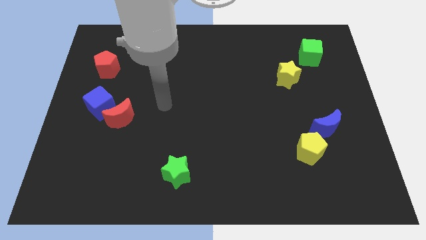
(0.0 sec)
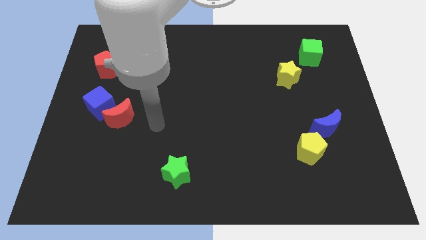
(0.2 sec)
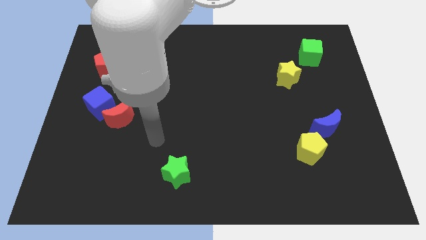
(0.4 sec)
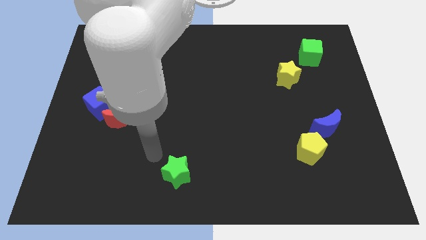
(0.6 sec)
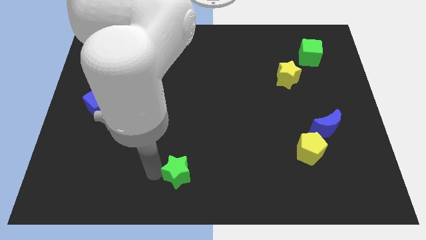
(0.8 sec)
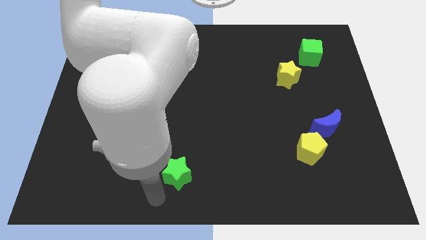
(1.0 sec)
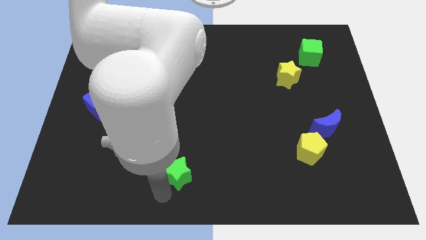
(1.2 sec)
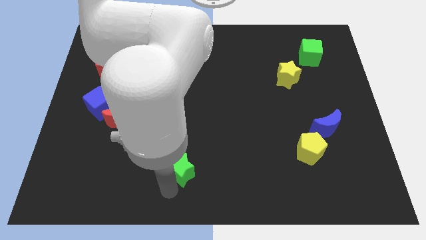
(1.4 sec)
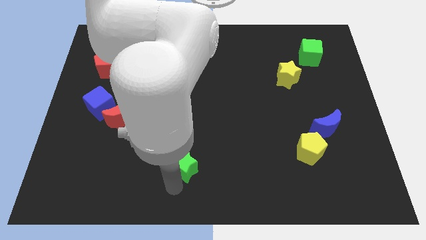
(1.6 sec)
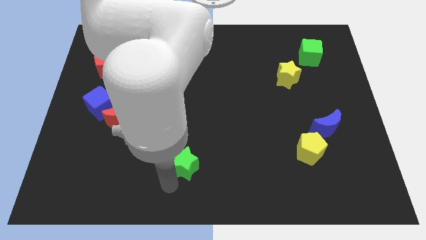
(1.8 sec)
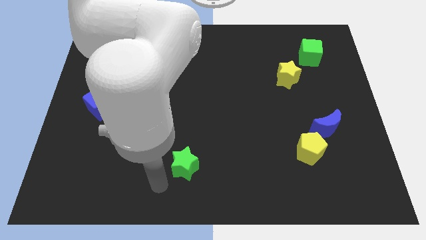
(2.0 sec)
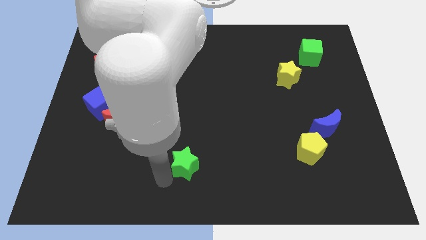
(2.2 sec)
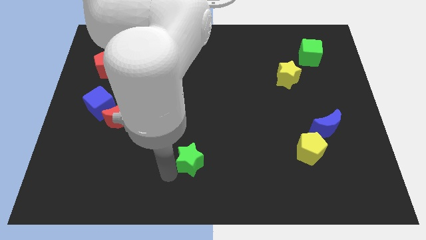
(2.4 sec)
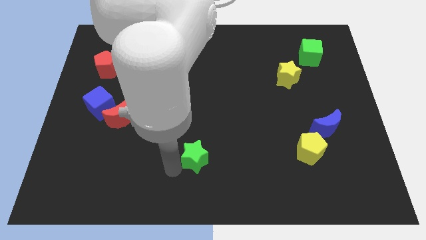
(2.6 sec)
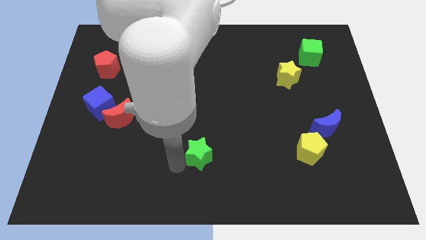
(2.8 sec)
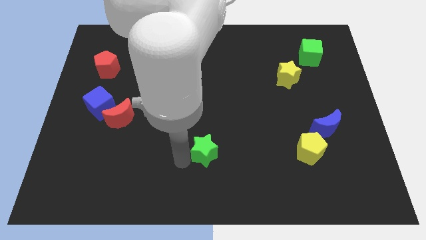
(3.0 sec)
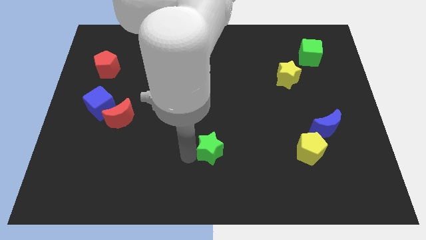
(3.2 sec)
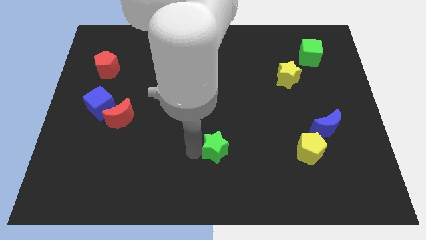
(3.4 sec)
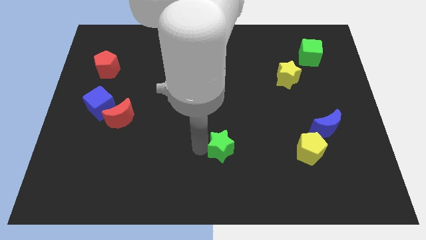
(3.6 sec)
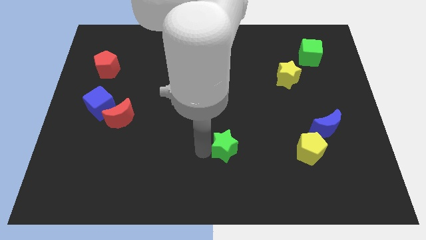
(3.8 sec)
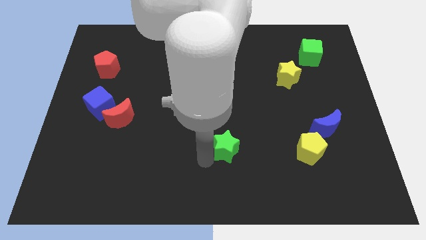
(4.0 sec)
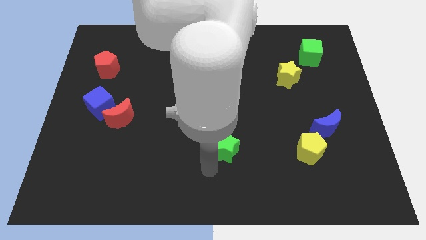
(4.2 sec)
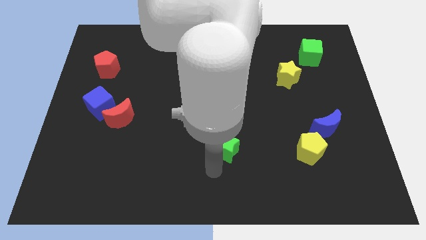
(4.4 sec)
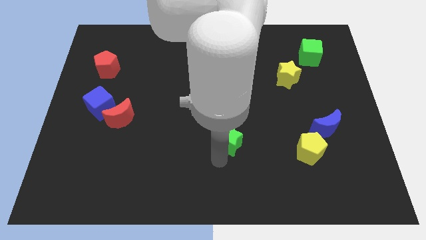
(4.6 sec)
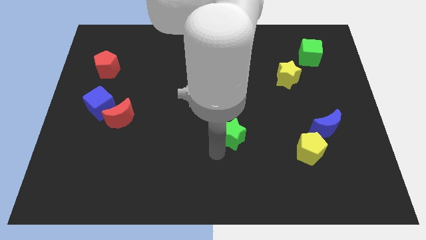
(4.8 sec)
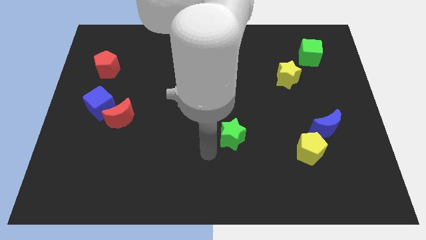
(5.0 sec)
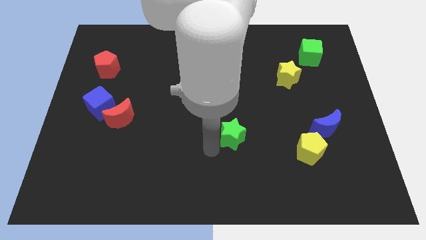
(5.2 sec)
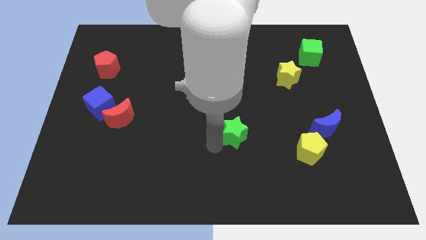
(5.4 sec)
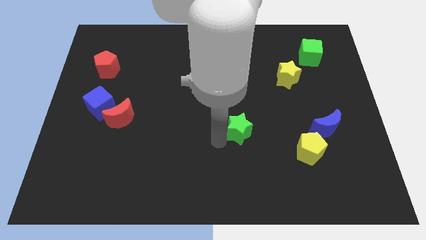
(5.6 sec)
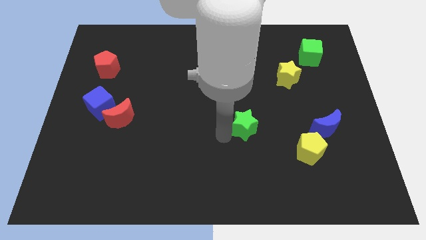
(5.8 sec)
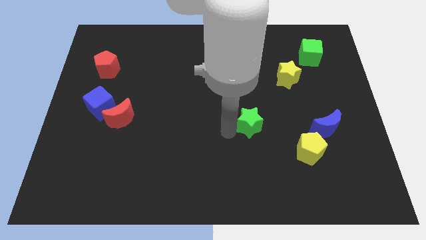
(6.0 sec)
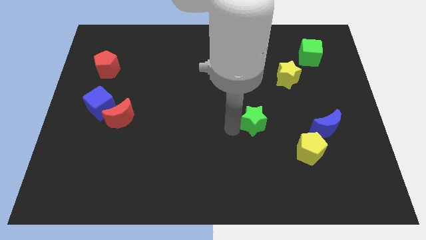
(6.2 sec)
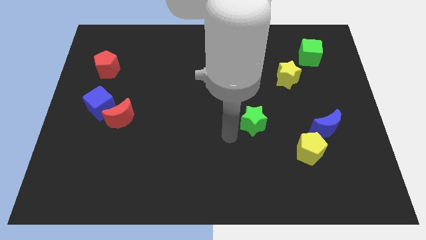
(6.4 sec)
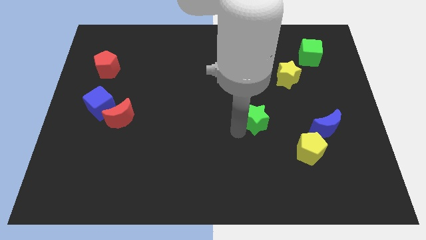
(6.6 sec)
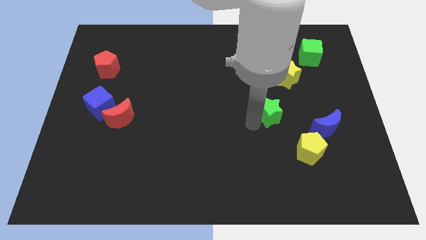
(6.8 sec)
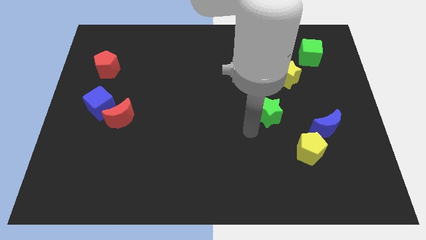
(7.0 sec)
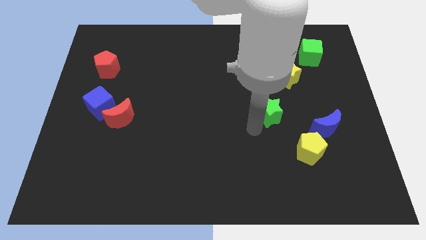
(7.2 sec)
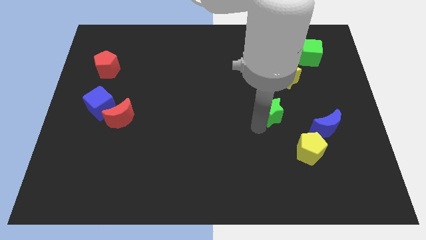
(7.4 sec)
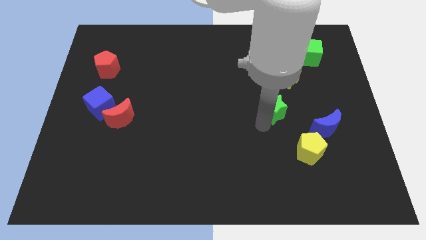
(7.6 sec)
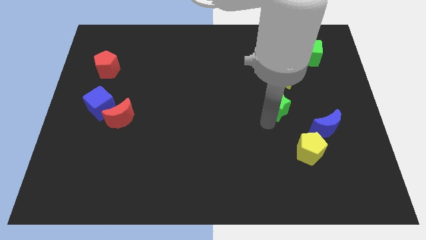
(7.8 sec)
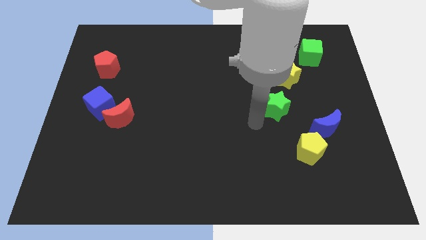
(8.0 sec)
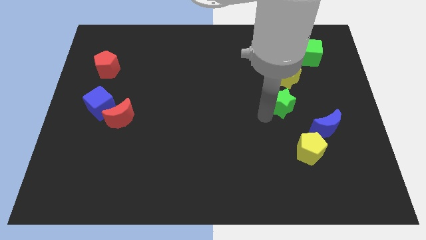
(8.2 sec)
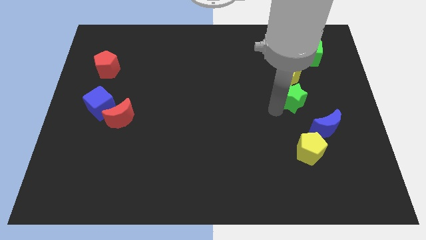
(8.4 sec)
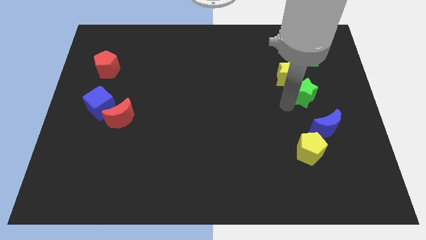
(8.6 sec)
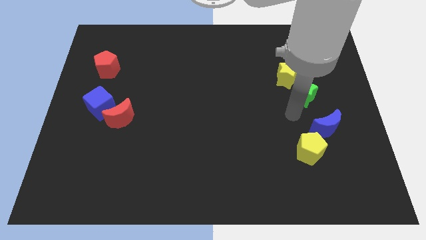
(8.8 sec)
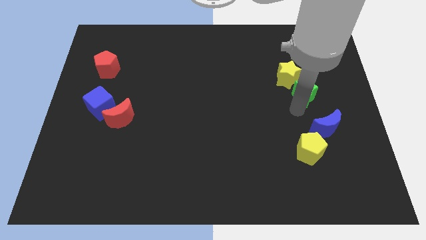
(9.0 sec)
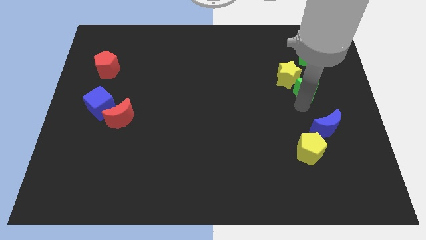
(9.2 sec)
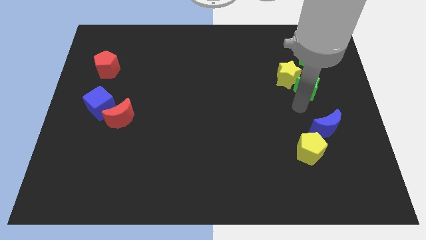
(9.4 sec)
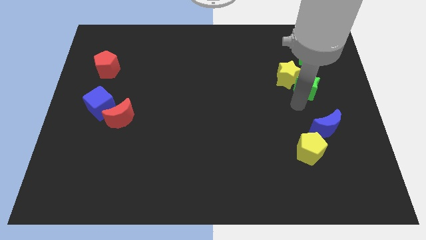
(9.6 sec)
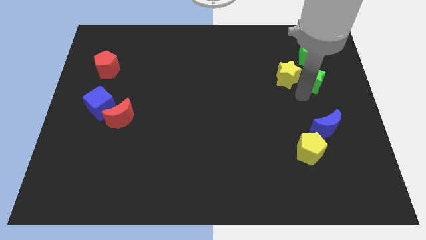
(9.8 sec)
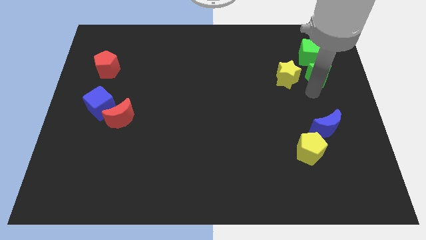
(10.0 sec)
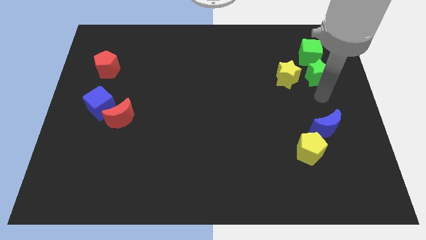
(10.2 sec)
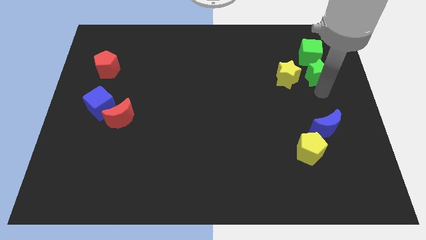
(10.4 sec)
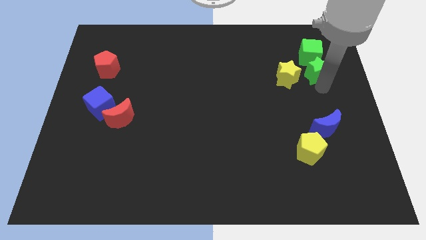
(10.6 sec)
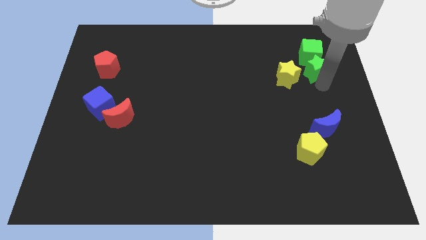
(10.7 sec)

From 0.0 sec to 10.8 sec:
put the green star close to the green cube

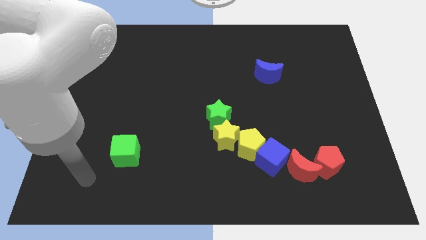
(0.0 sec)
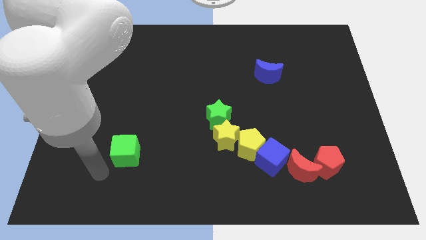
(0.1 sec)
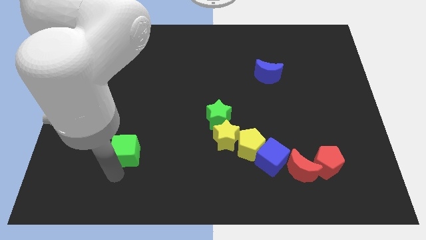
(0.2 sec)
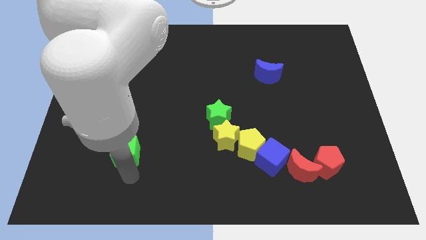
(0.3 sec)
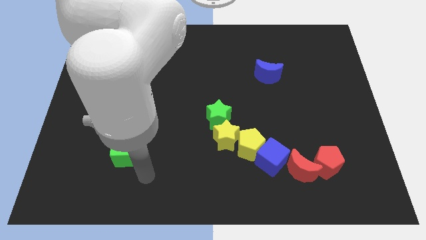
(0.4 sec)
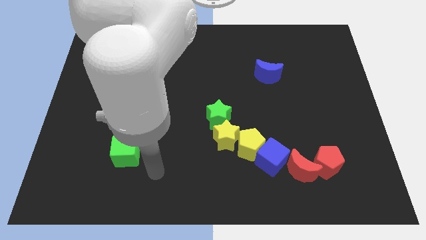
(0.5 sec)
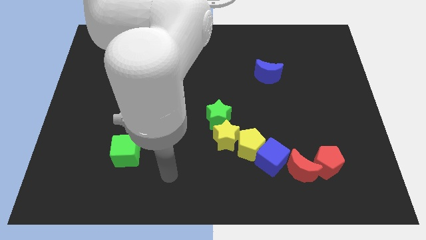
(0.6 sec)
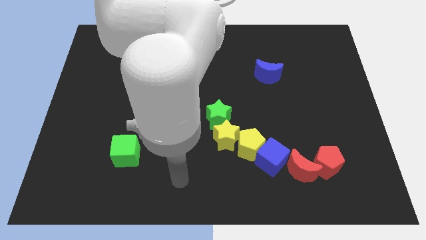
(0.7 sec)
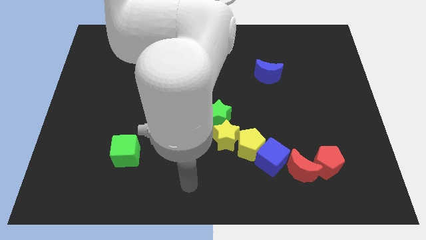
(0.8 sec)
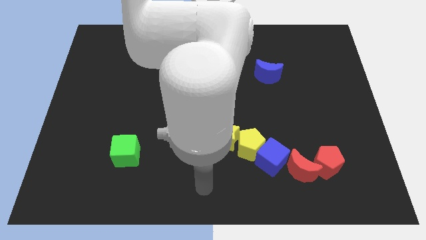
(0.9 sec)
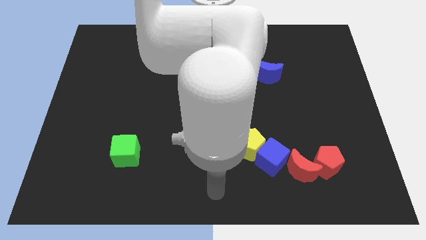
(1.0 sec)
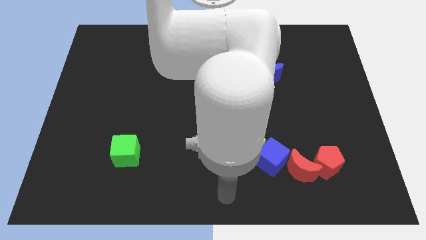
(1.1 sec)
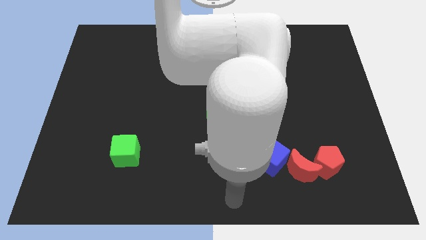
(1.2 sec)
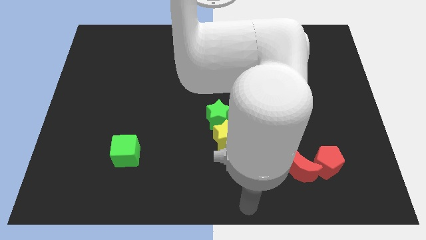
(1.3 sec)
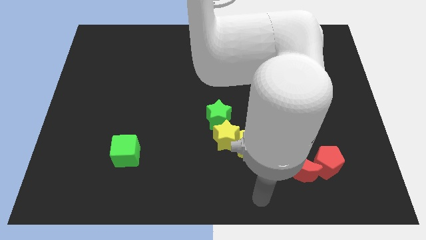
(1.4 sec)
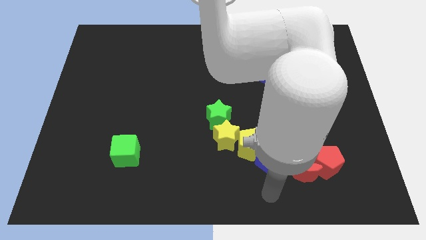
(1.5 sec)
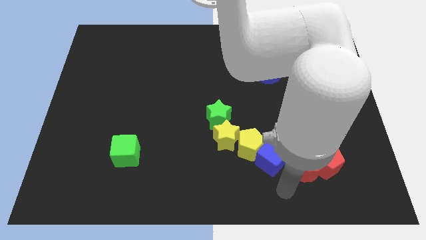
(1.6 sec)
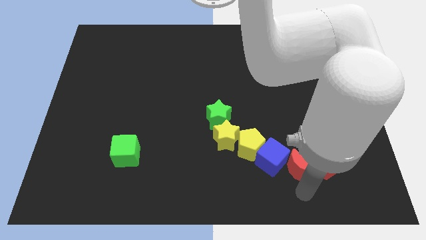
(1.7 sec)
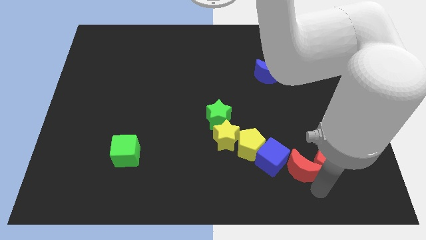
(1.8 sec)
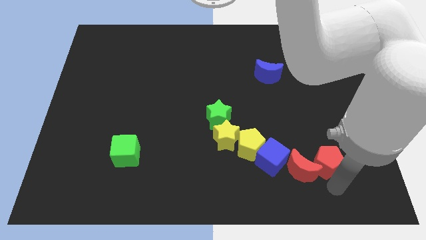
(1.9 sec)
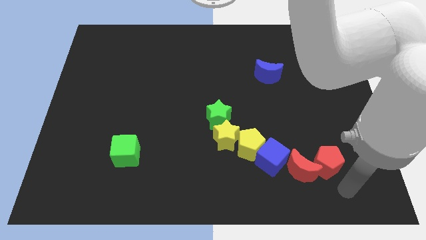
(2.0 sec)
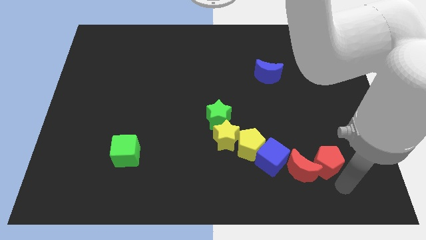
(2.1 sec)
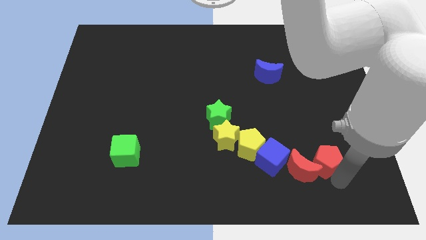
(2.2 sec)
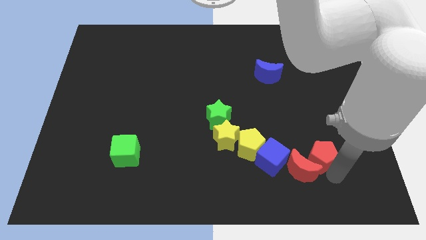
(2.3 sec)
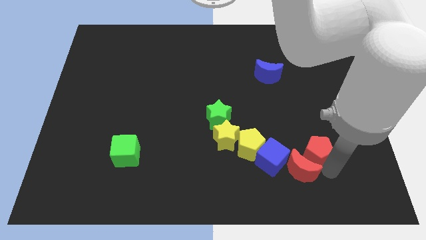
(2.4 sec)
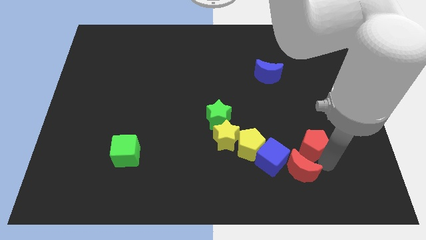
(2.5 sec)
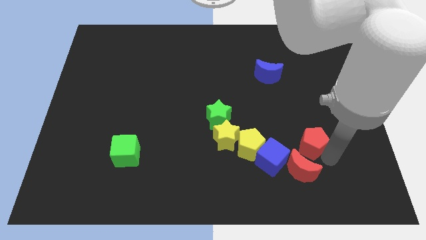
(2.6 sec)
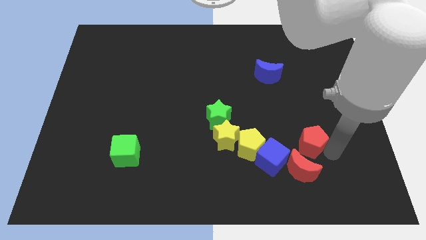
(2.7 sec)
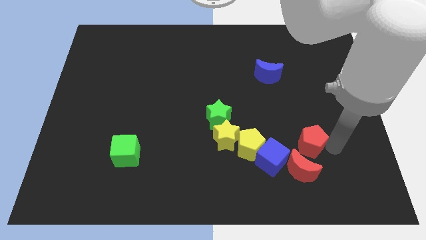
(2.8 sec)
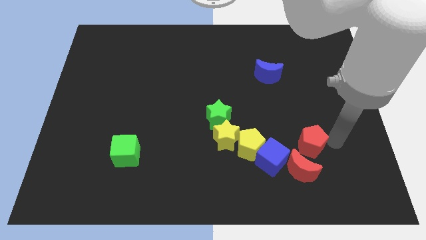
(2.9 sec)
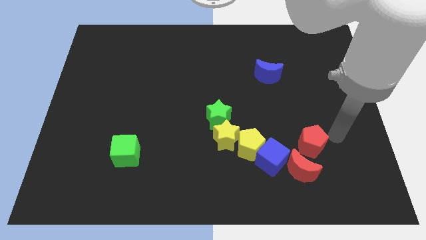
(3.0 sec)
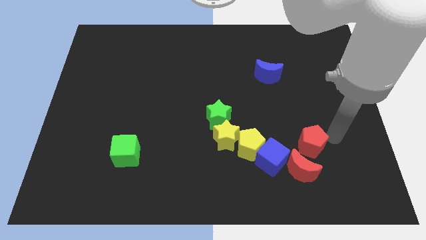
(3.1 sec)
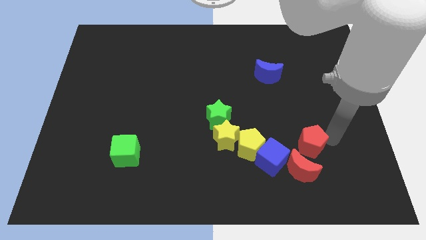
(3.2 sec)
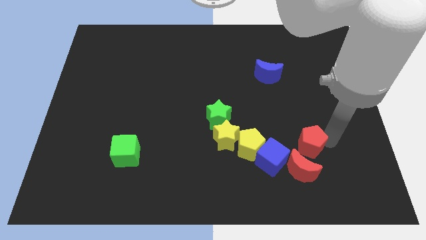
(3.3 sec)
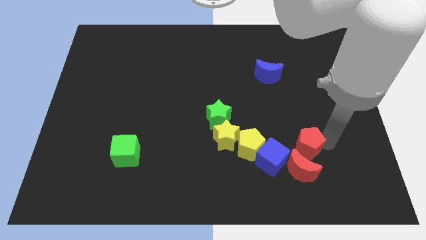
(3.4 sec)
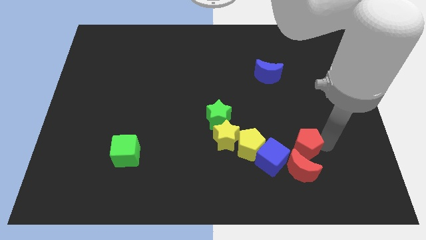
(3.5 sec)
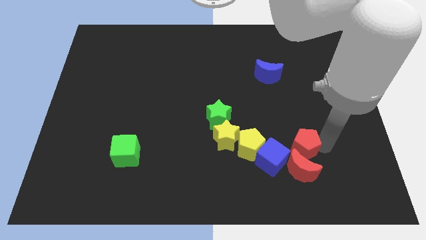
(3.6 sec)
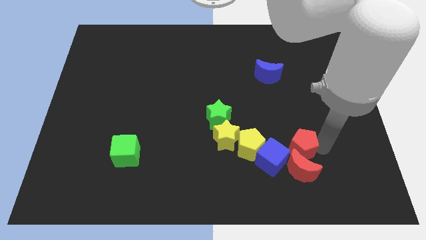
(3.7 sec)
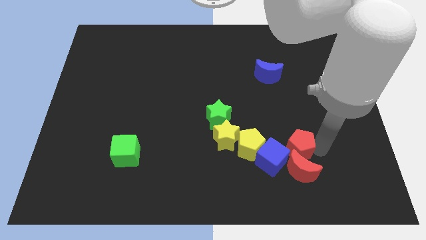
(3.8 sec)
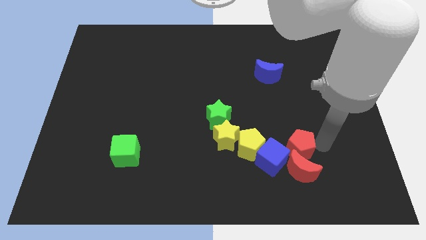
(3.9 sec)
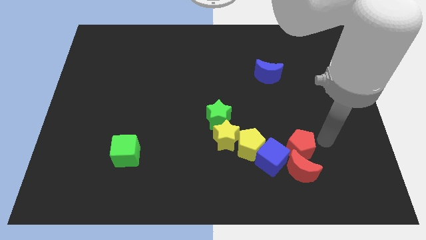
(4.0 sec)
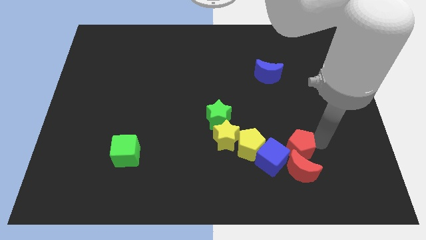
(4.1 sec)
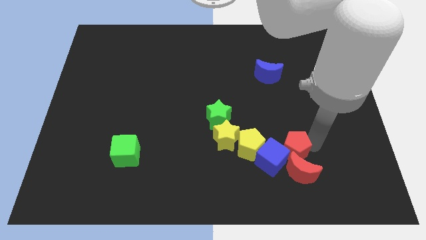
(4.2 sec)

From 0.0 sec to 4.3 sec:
move the red pentagon close to the blue cube
